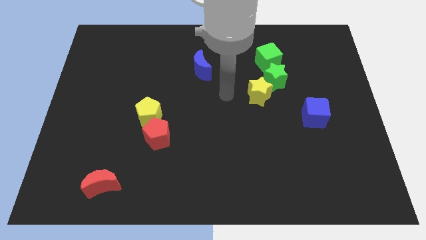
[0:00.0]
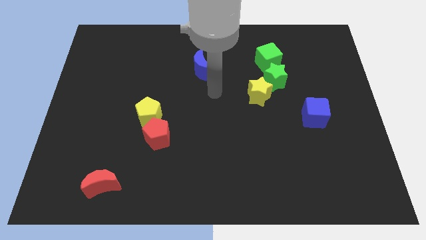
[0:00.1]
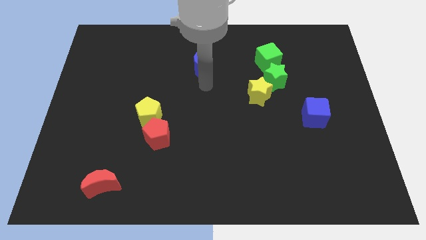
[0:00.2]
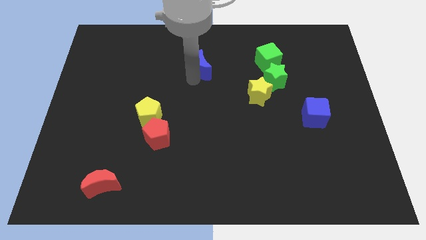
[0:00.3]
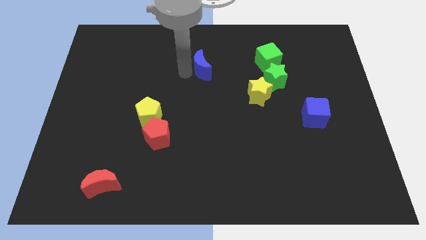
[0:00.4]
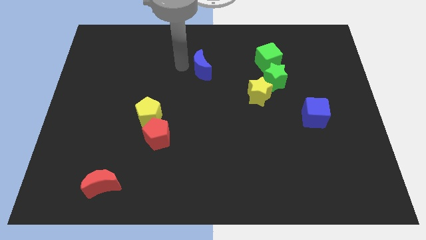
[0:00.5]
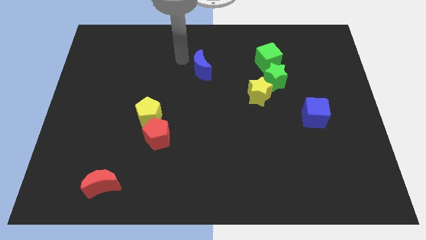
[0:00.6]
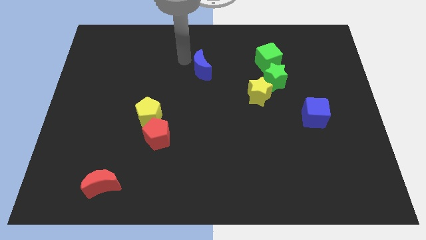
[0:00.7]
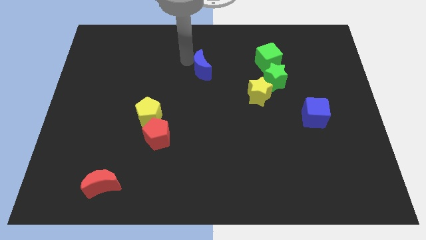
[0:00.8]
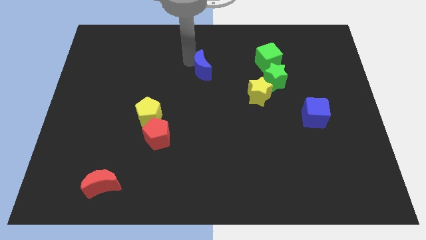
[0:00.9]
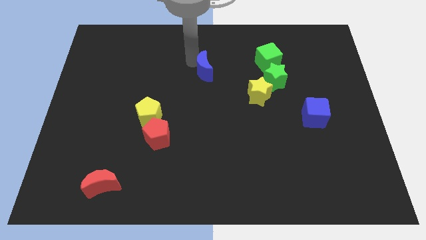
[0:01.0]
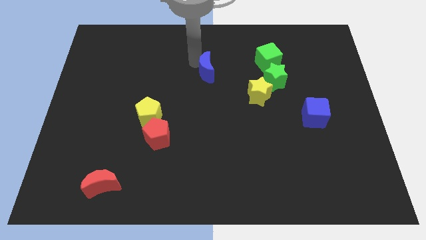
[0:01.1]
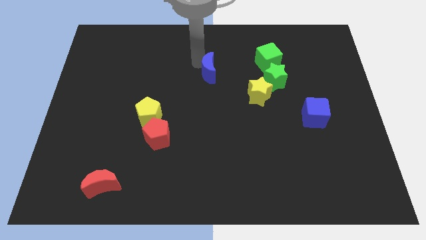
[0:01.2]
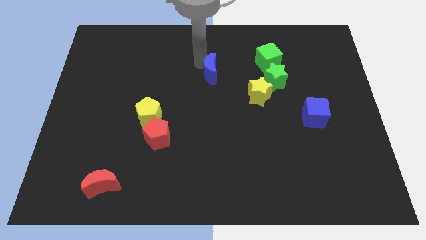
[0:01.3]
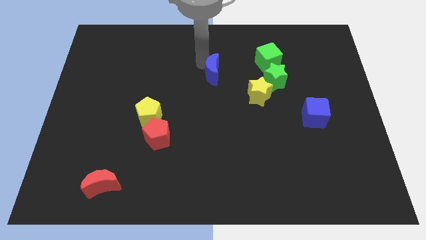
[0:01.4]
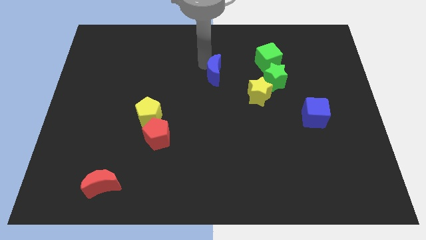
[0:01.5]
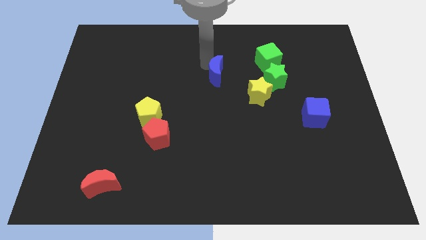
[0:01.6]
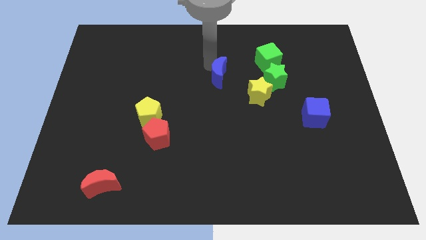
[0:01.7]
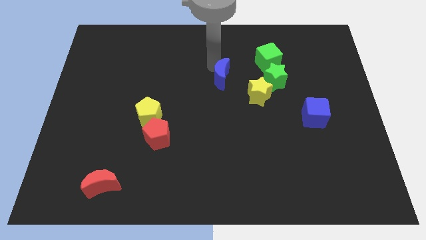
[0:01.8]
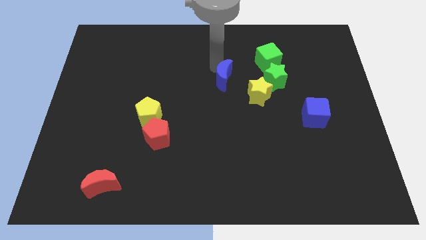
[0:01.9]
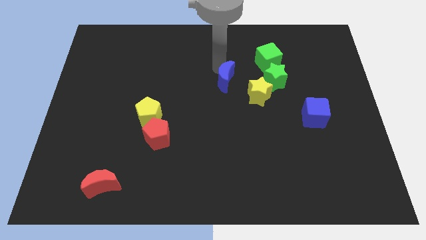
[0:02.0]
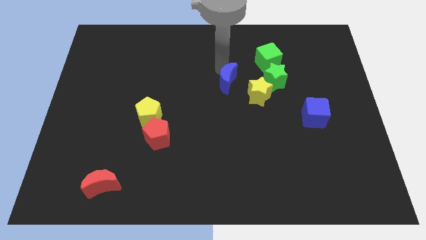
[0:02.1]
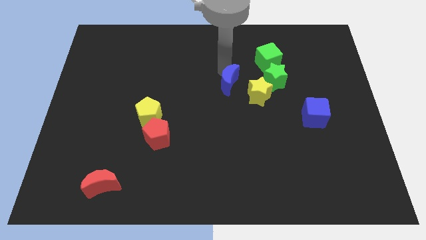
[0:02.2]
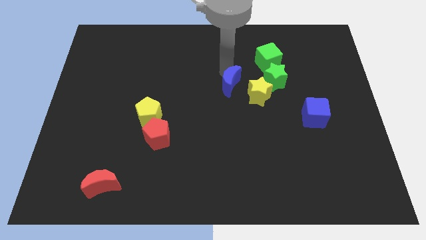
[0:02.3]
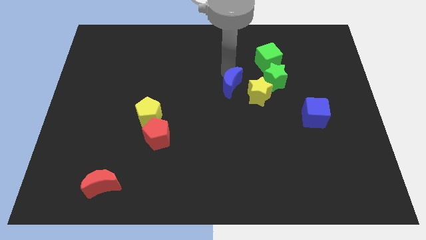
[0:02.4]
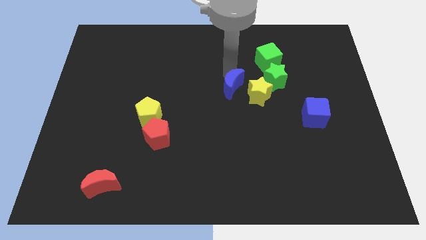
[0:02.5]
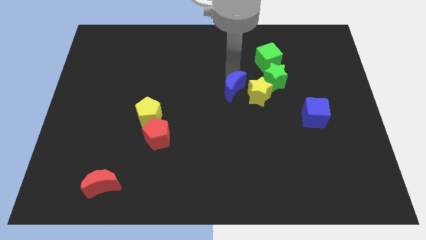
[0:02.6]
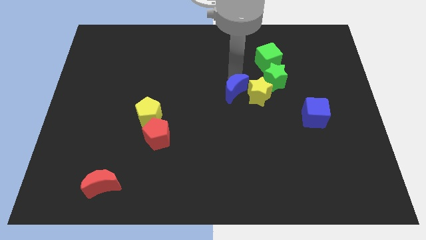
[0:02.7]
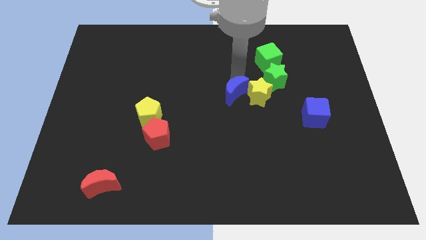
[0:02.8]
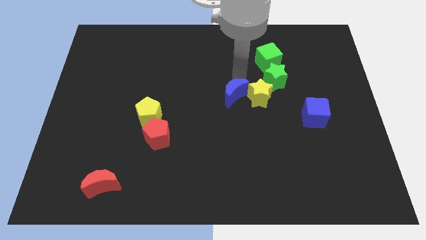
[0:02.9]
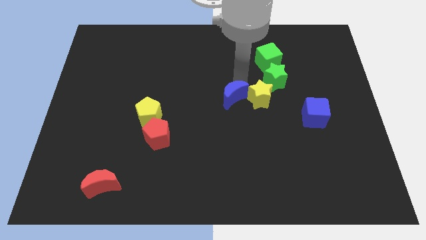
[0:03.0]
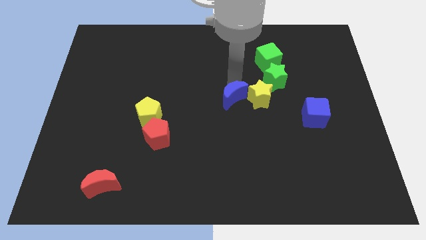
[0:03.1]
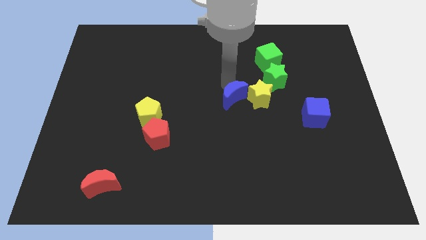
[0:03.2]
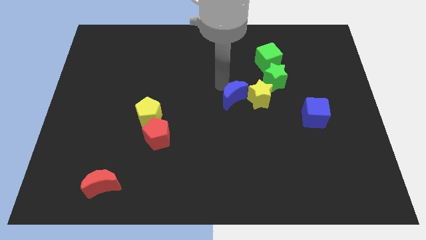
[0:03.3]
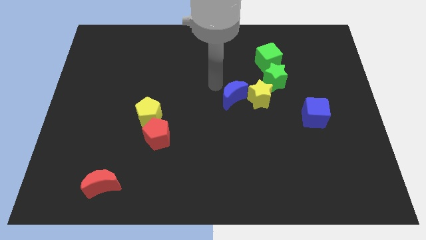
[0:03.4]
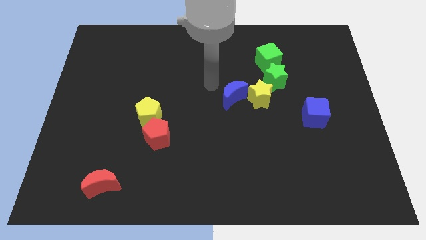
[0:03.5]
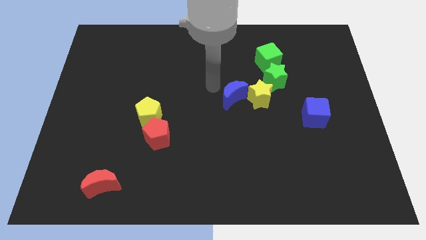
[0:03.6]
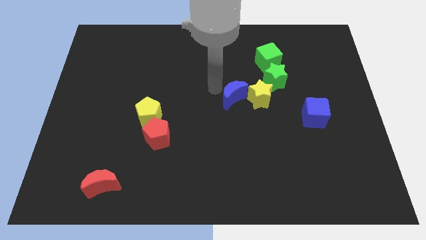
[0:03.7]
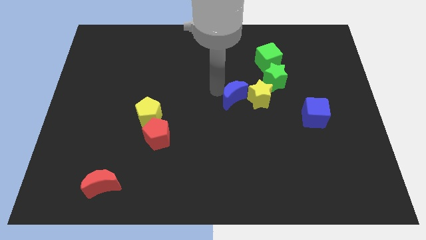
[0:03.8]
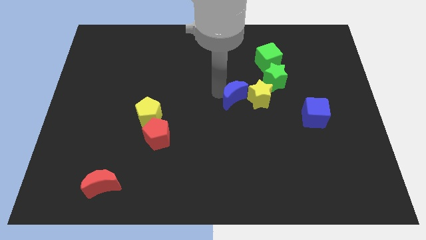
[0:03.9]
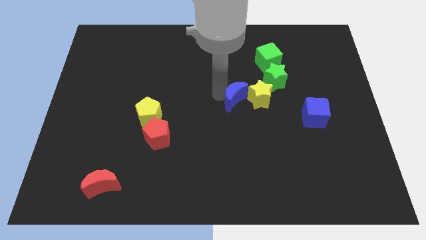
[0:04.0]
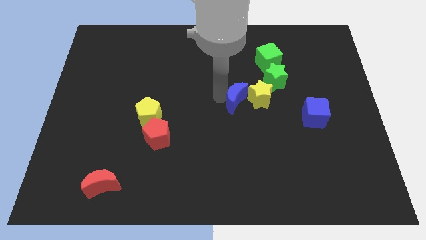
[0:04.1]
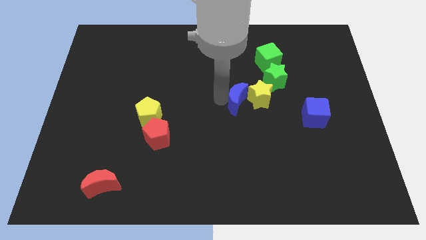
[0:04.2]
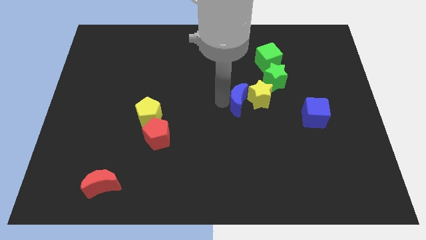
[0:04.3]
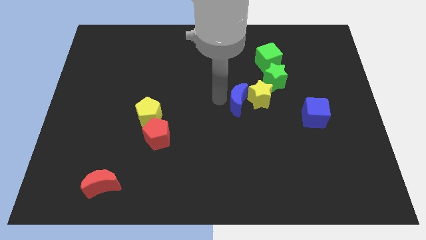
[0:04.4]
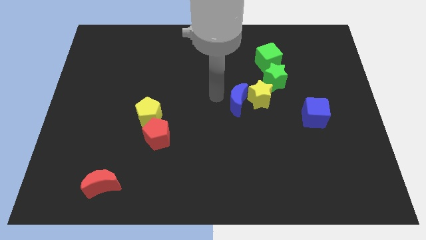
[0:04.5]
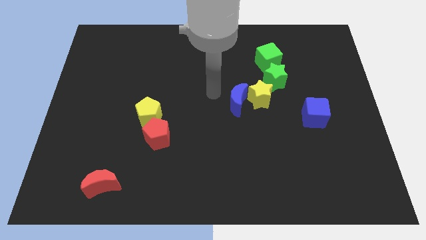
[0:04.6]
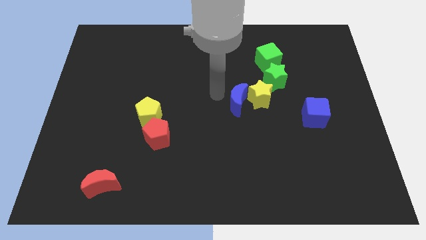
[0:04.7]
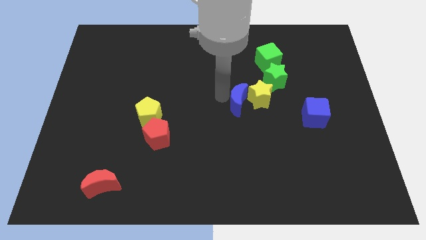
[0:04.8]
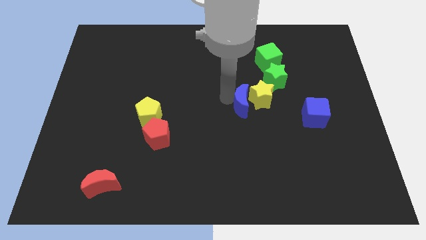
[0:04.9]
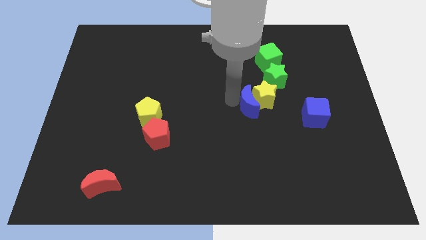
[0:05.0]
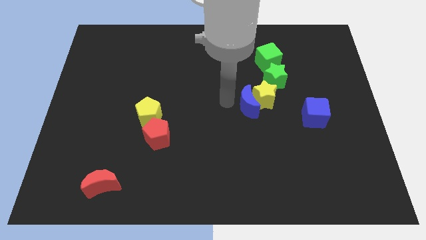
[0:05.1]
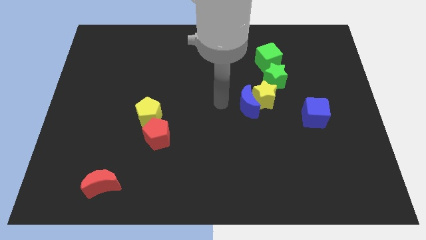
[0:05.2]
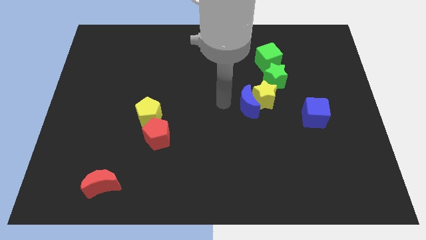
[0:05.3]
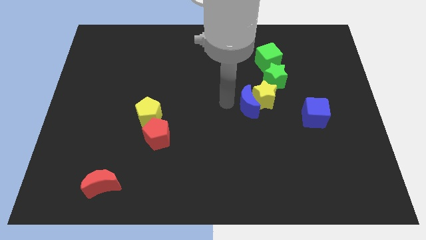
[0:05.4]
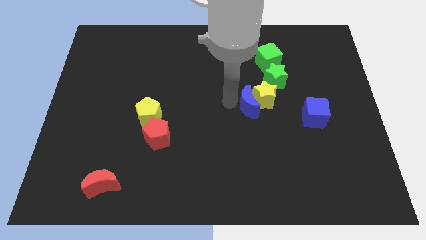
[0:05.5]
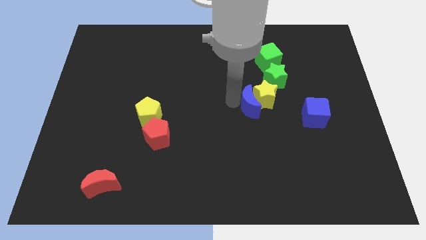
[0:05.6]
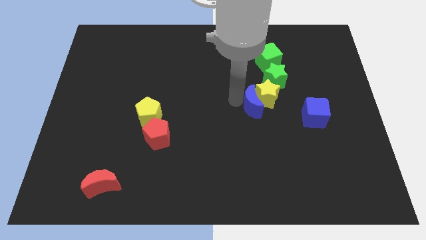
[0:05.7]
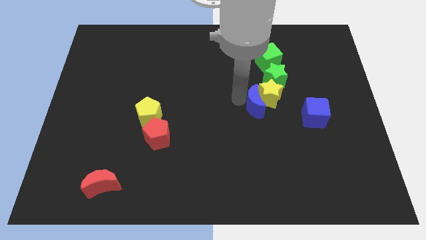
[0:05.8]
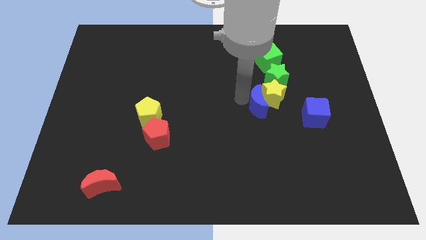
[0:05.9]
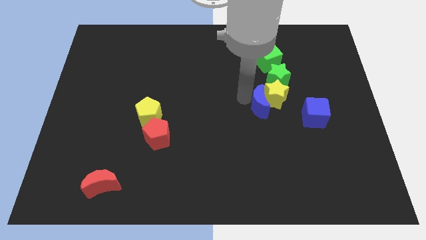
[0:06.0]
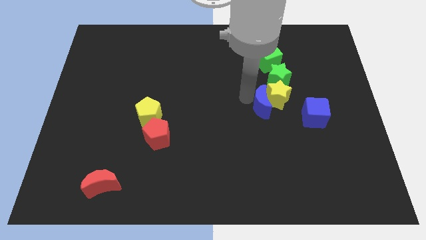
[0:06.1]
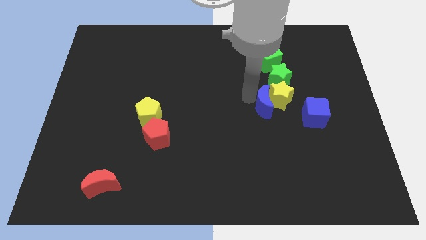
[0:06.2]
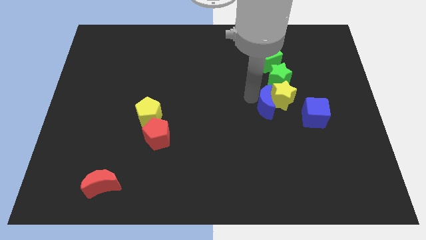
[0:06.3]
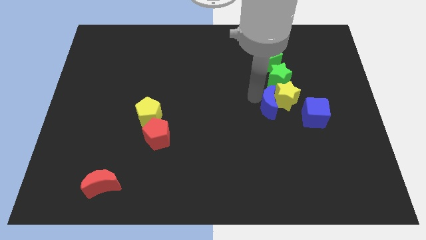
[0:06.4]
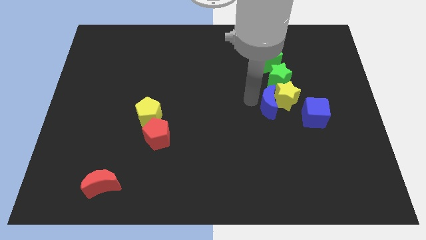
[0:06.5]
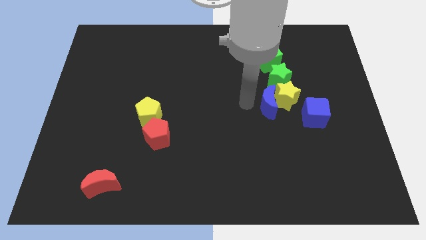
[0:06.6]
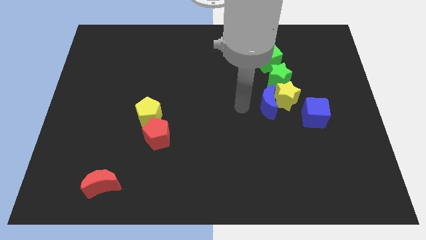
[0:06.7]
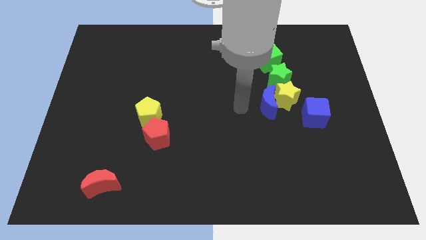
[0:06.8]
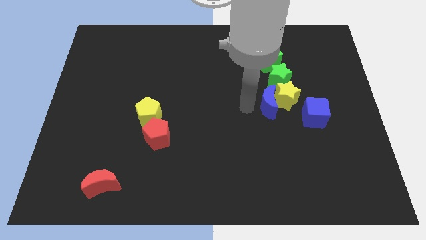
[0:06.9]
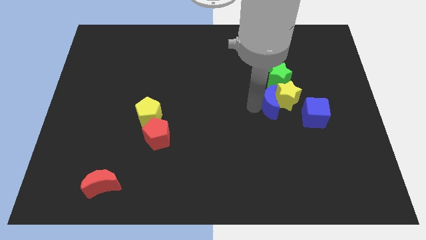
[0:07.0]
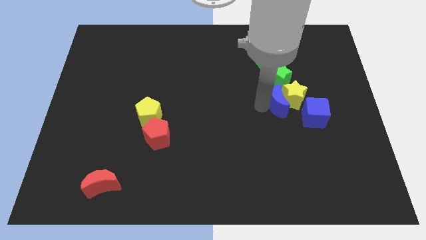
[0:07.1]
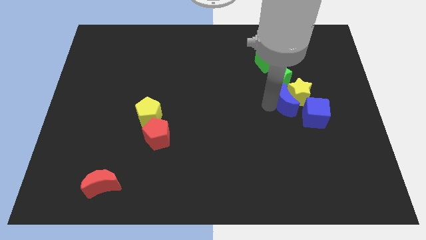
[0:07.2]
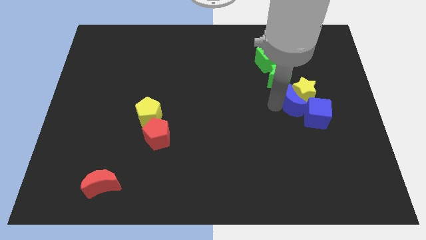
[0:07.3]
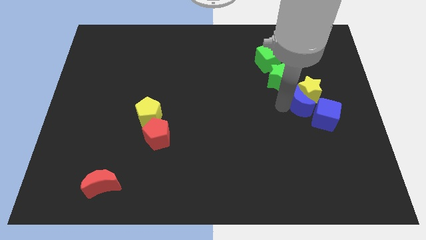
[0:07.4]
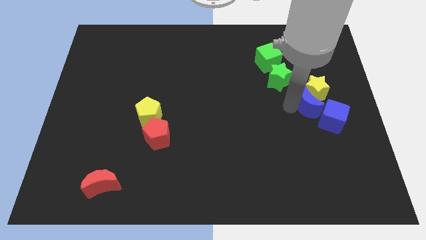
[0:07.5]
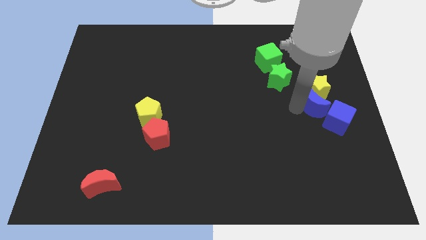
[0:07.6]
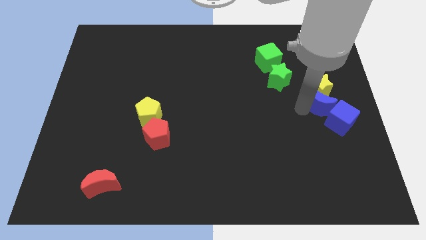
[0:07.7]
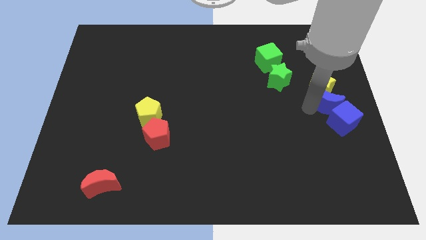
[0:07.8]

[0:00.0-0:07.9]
slide the blue moon to the center right
